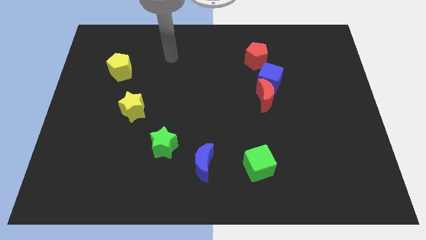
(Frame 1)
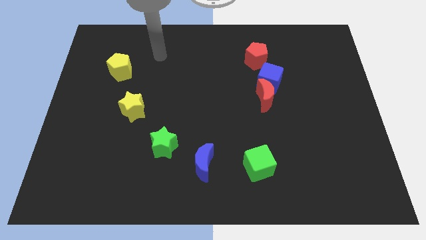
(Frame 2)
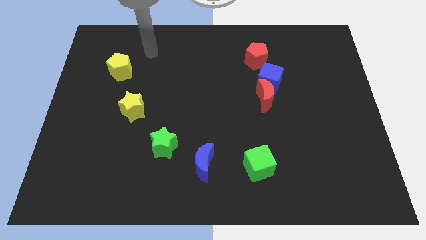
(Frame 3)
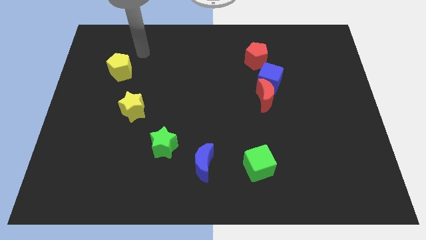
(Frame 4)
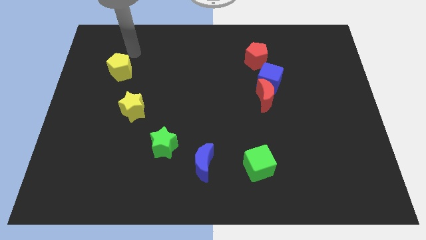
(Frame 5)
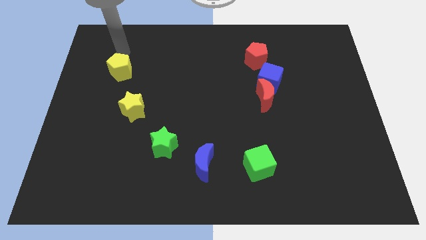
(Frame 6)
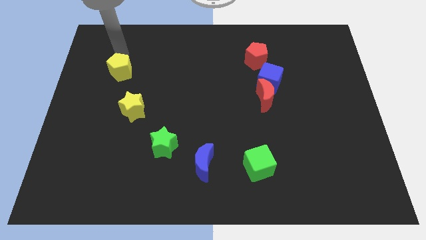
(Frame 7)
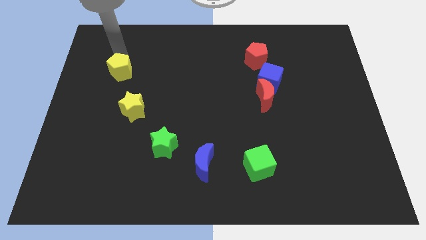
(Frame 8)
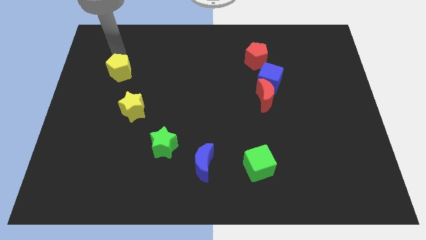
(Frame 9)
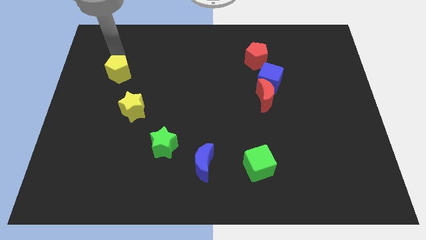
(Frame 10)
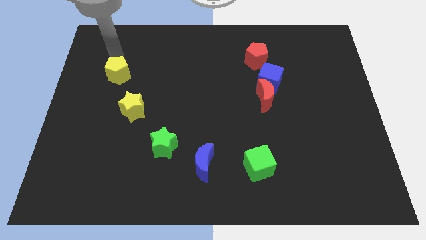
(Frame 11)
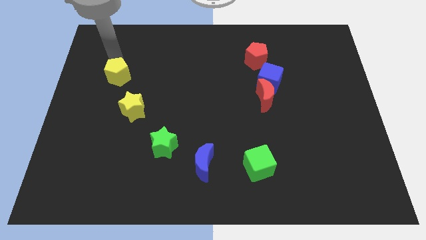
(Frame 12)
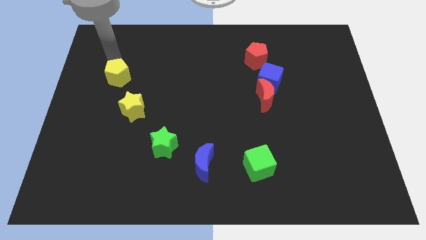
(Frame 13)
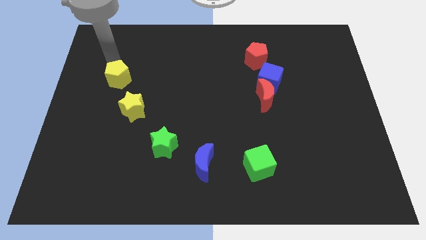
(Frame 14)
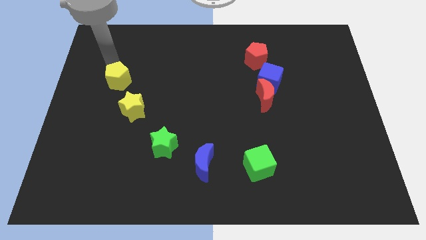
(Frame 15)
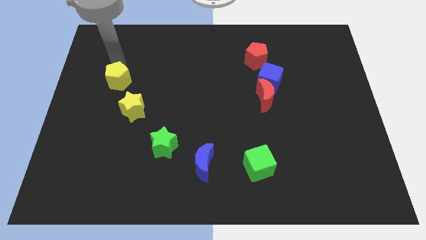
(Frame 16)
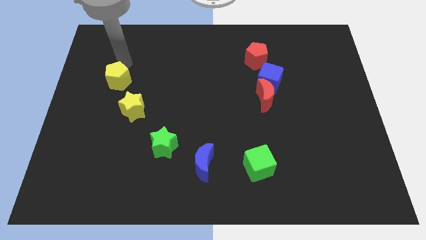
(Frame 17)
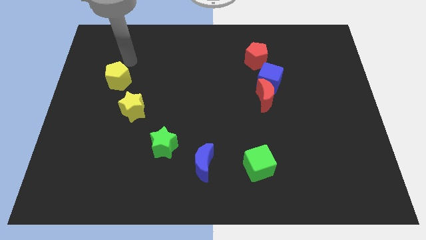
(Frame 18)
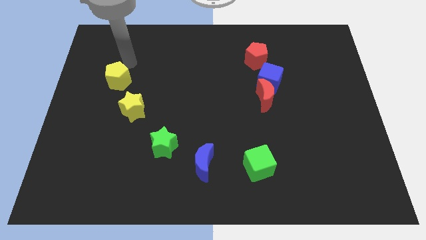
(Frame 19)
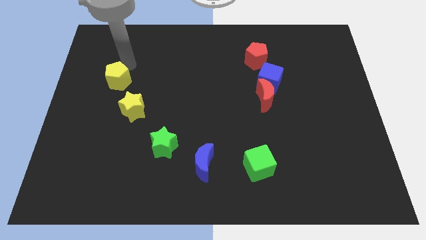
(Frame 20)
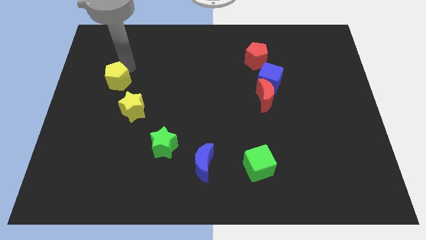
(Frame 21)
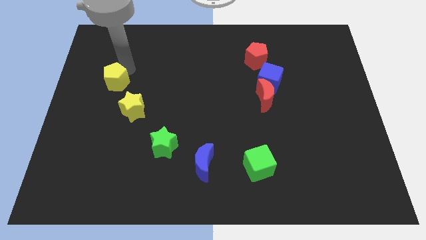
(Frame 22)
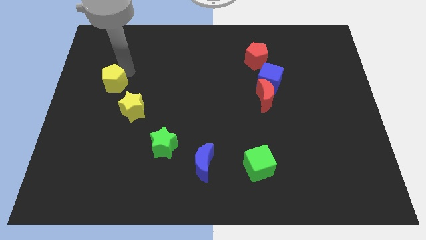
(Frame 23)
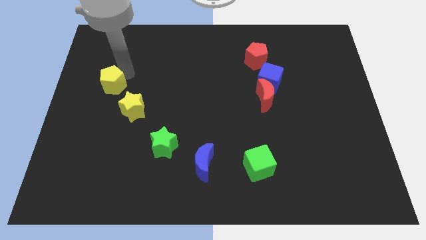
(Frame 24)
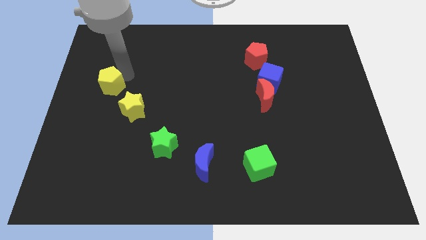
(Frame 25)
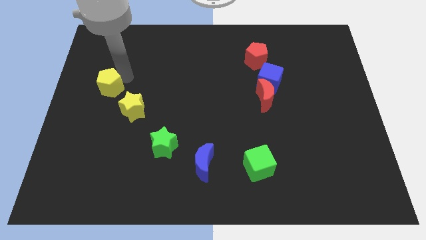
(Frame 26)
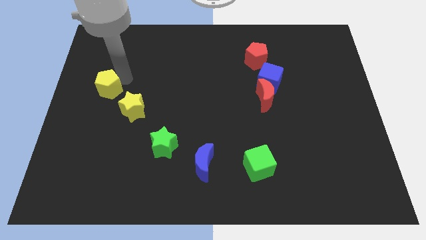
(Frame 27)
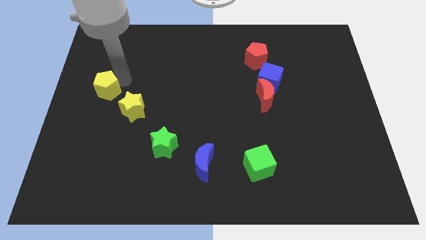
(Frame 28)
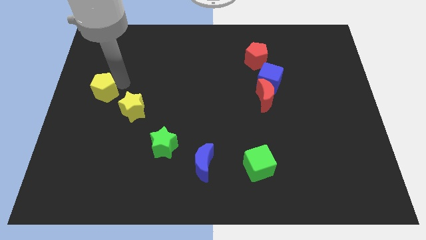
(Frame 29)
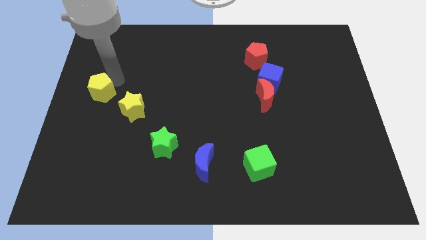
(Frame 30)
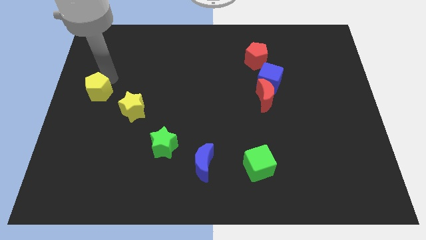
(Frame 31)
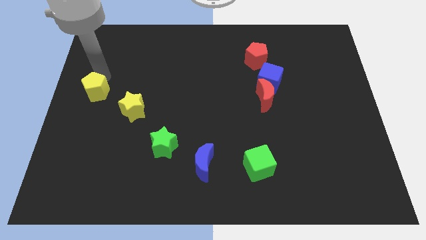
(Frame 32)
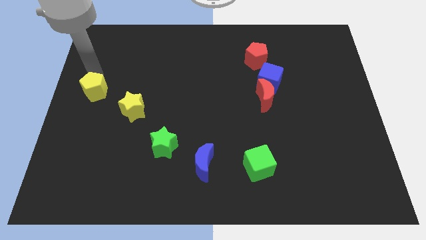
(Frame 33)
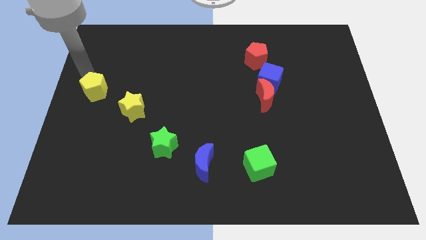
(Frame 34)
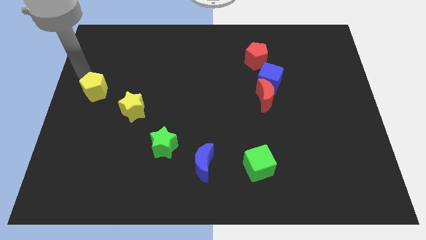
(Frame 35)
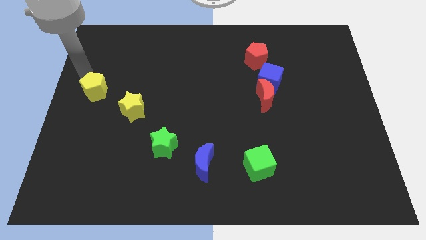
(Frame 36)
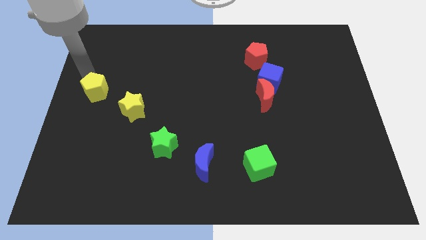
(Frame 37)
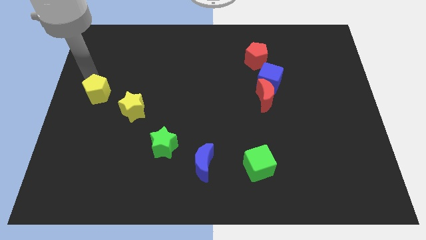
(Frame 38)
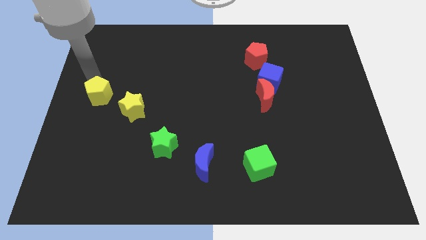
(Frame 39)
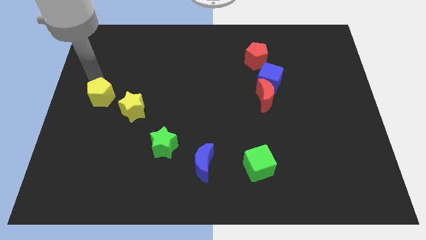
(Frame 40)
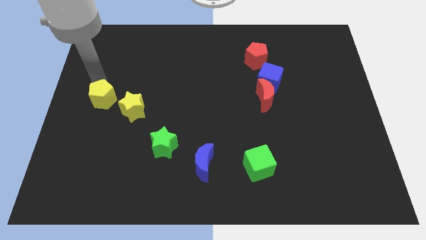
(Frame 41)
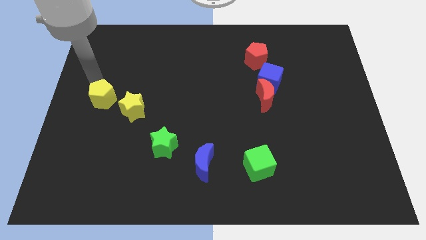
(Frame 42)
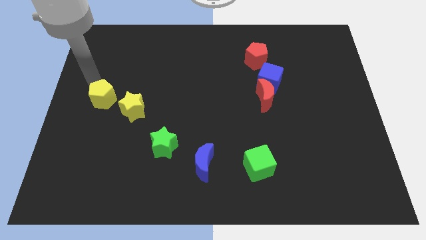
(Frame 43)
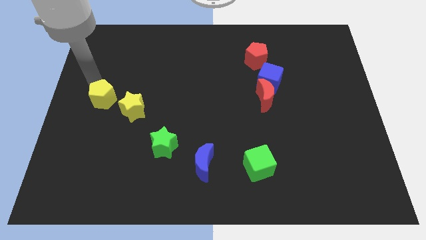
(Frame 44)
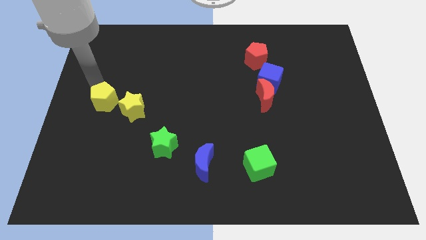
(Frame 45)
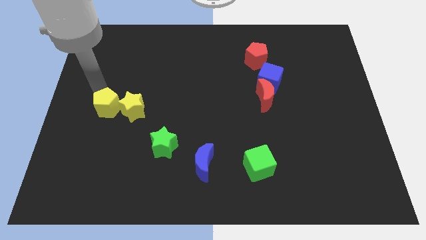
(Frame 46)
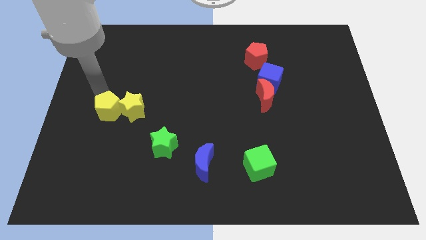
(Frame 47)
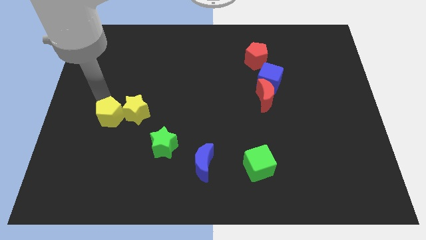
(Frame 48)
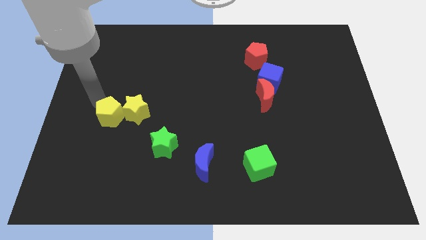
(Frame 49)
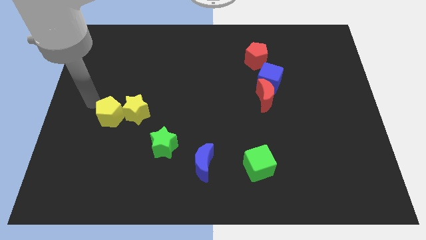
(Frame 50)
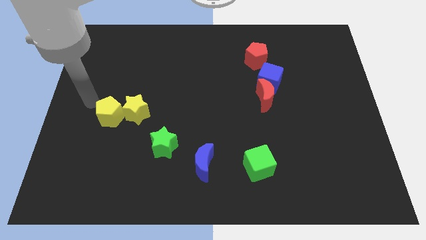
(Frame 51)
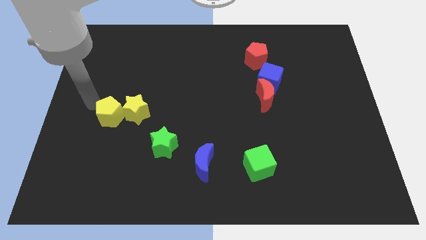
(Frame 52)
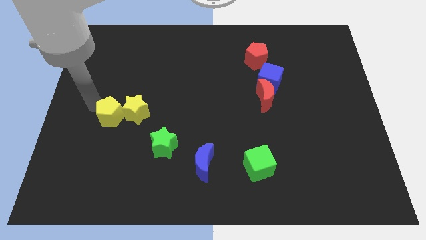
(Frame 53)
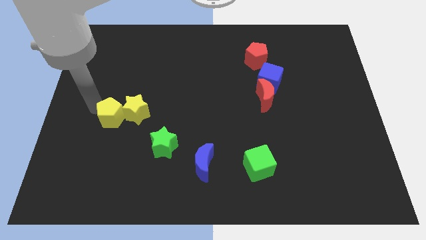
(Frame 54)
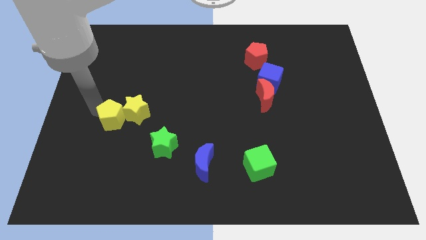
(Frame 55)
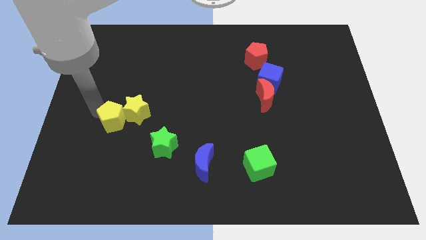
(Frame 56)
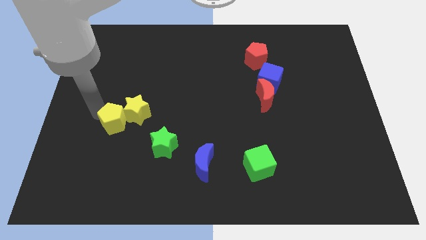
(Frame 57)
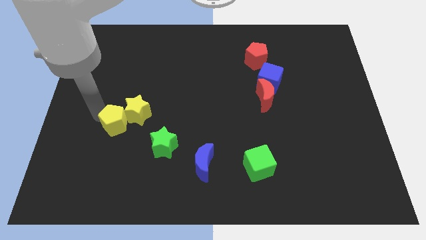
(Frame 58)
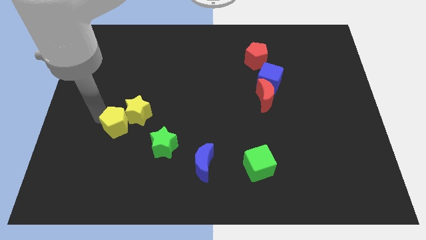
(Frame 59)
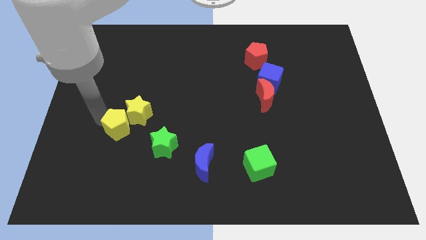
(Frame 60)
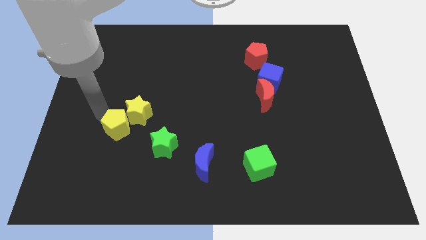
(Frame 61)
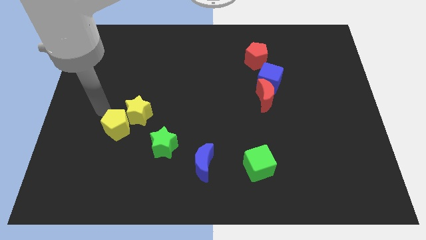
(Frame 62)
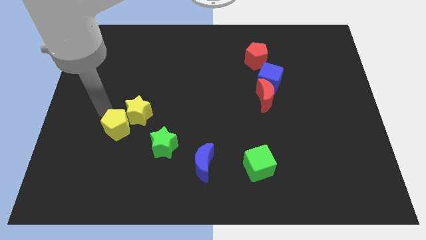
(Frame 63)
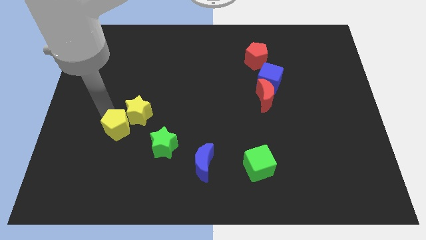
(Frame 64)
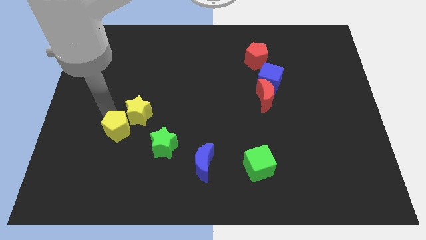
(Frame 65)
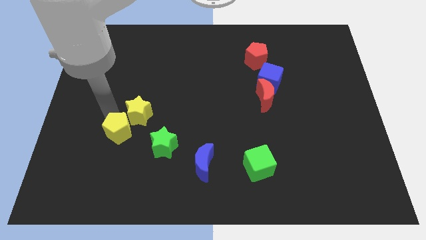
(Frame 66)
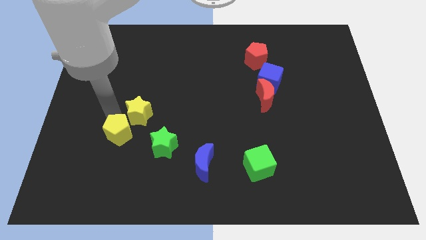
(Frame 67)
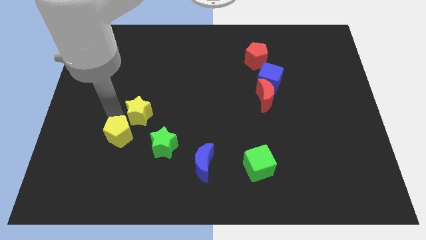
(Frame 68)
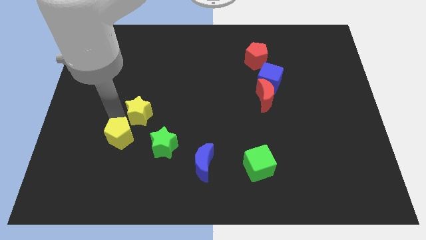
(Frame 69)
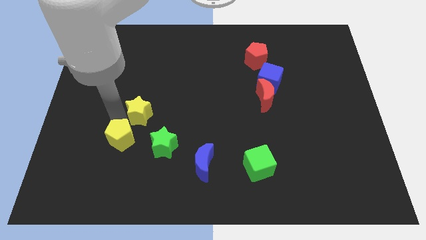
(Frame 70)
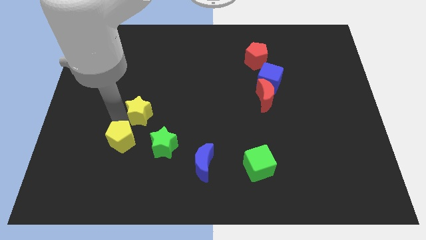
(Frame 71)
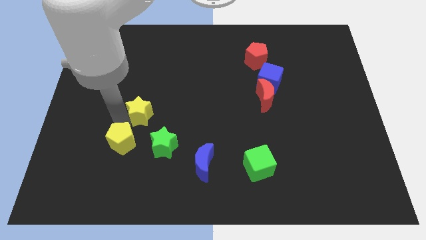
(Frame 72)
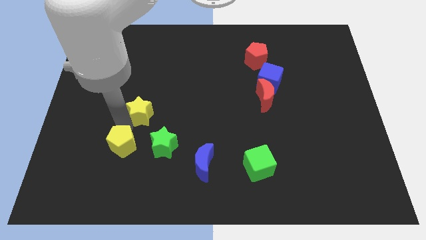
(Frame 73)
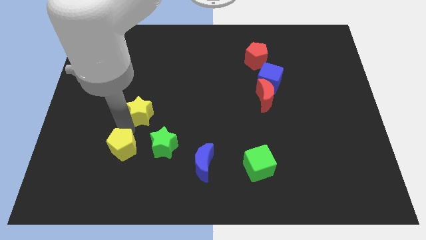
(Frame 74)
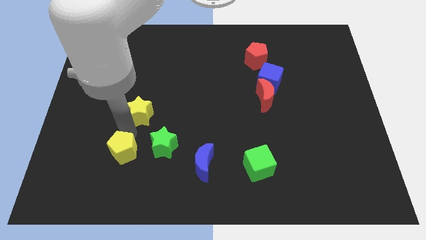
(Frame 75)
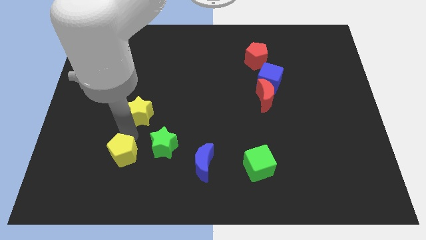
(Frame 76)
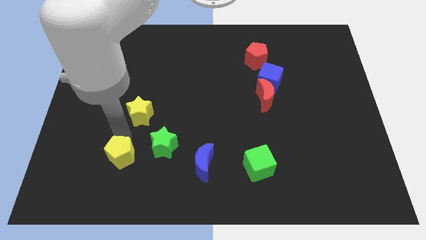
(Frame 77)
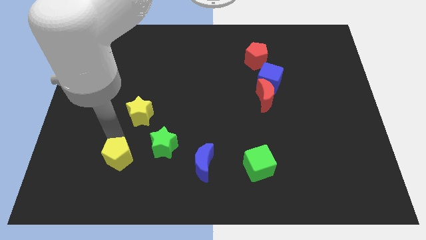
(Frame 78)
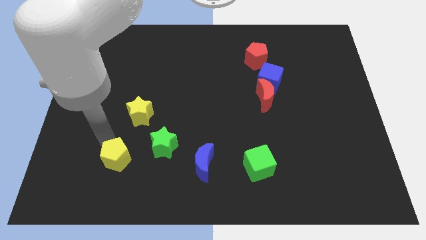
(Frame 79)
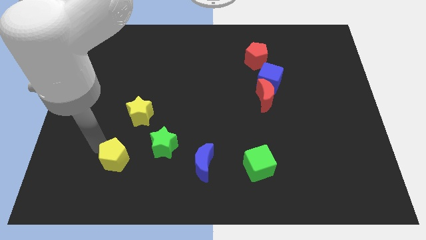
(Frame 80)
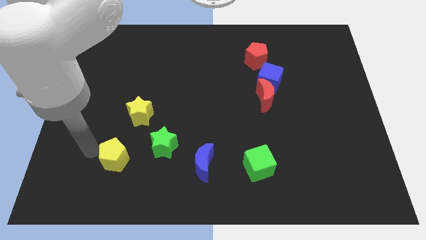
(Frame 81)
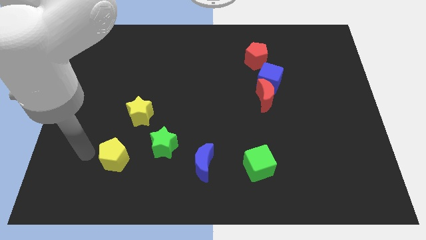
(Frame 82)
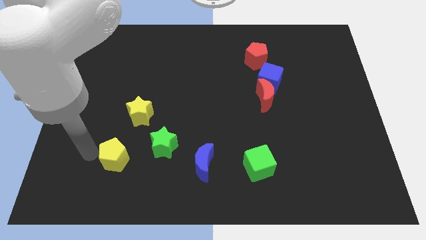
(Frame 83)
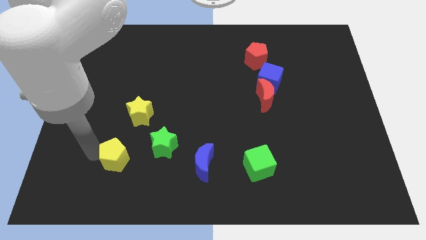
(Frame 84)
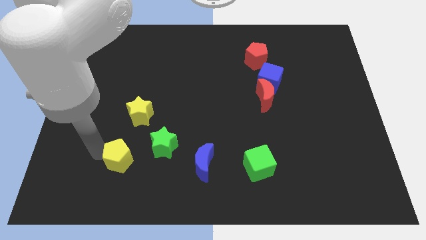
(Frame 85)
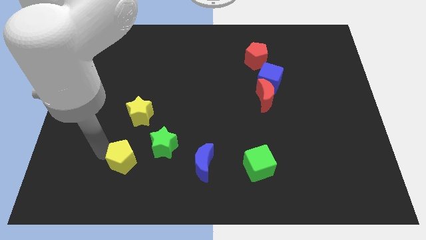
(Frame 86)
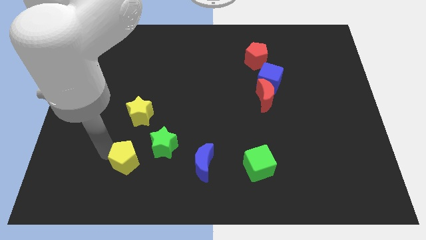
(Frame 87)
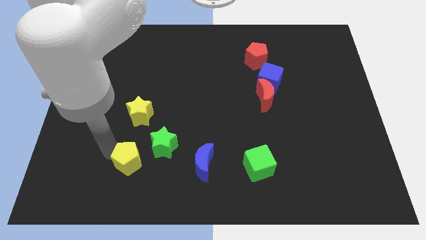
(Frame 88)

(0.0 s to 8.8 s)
push the yellow pentagon just left of the blue moon
